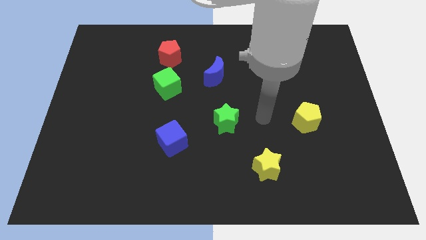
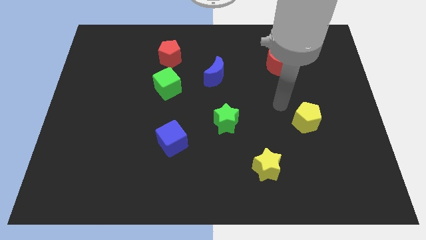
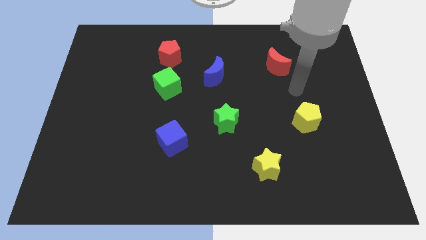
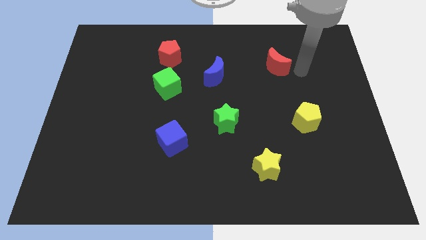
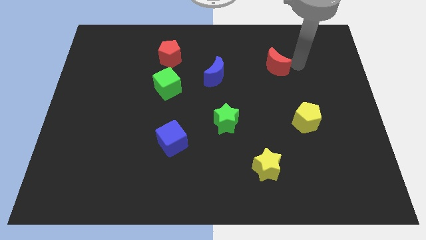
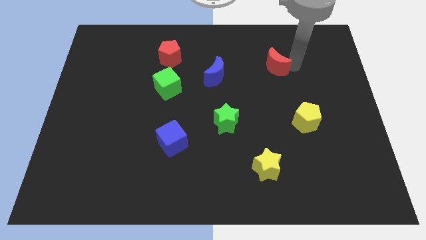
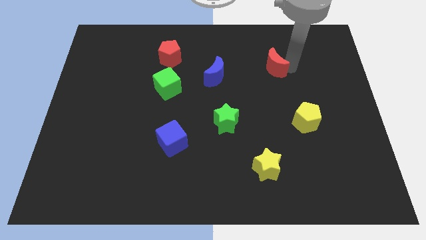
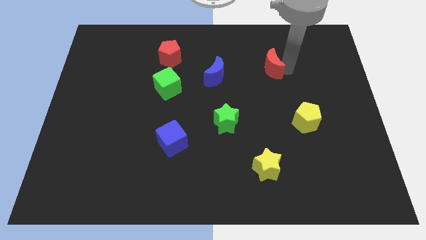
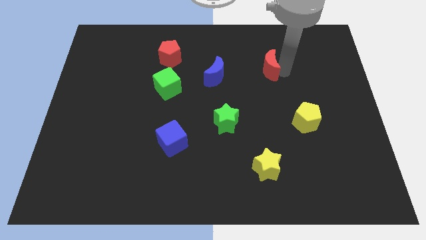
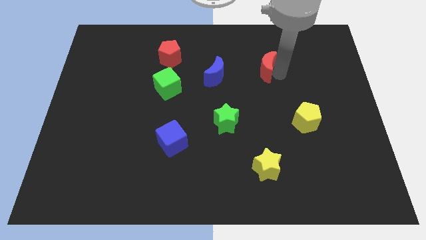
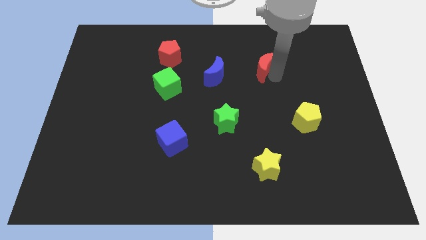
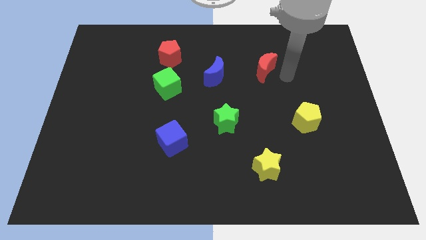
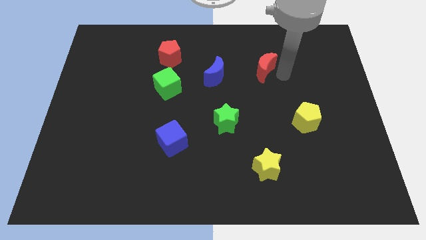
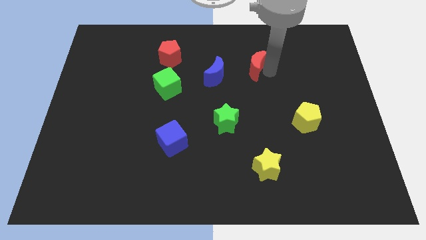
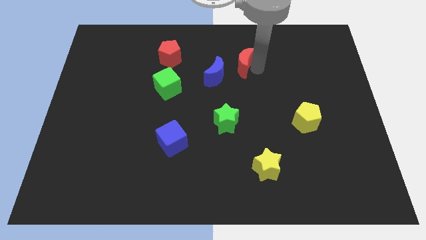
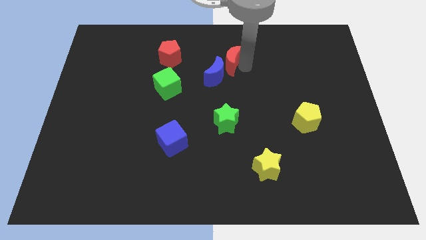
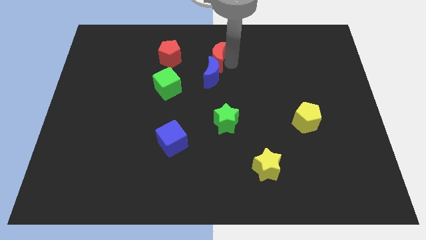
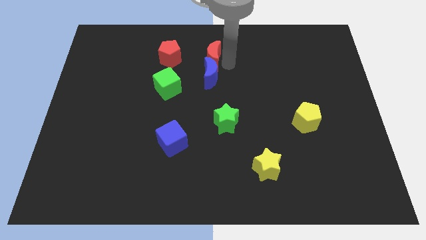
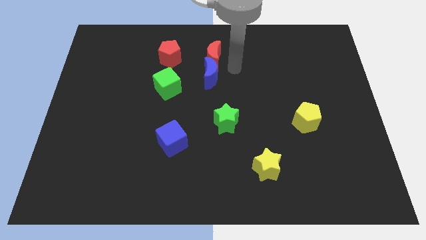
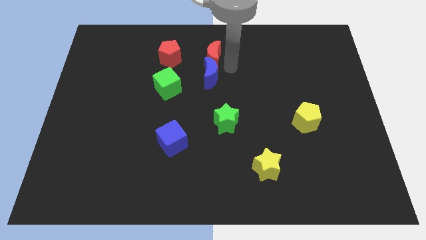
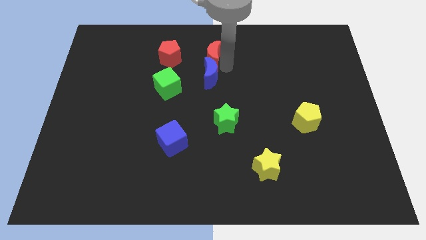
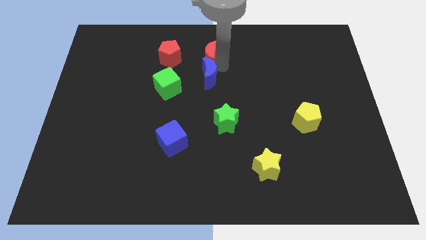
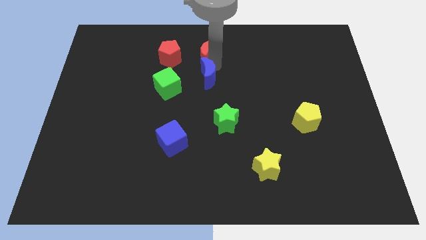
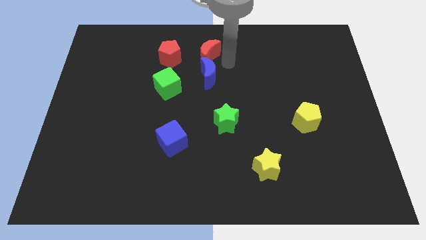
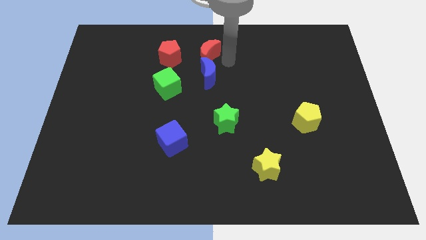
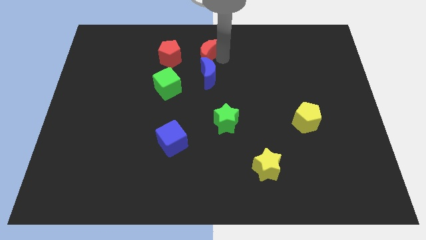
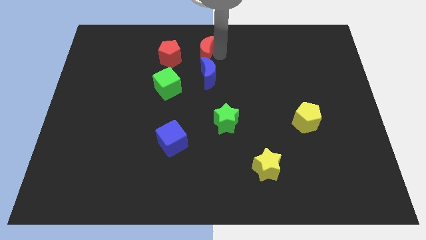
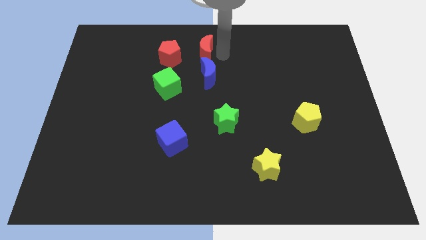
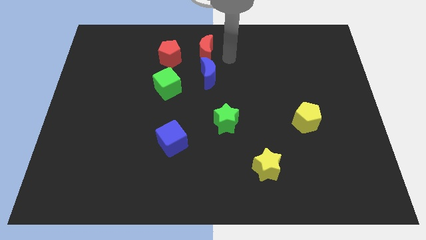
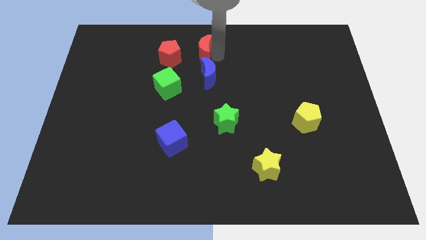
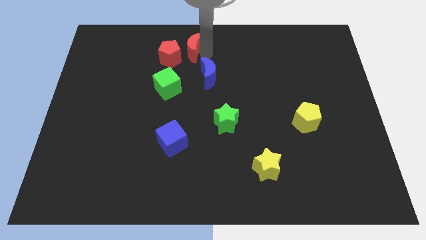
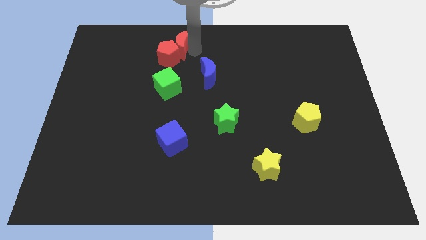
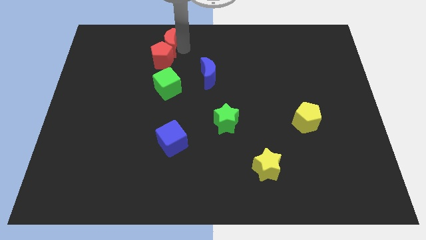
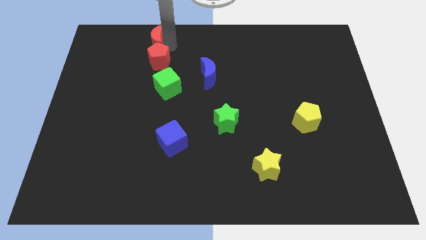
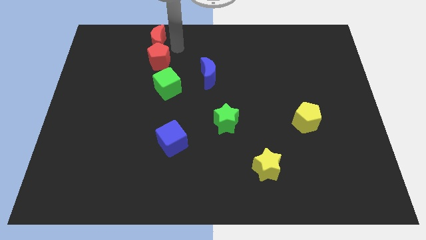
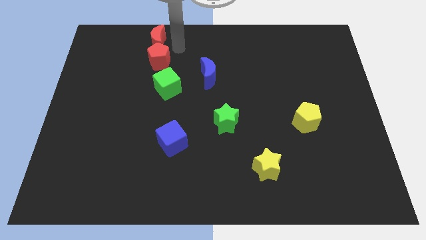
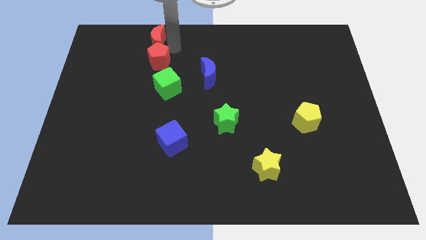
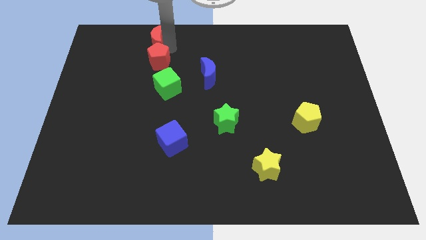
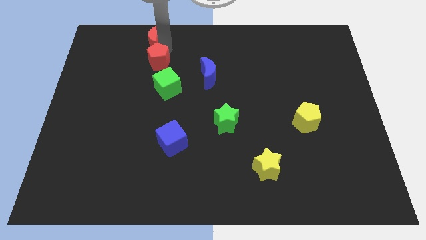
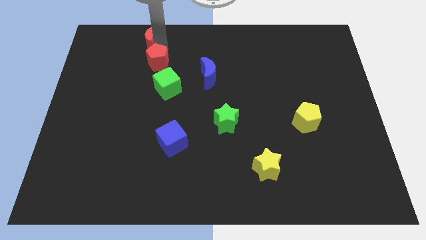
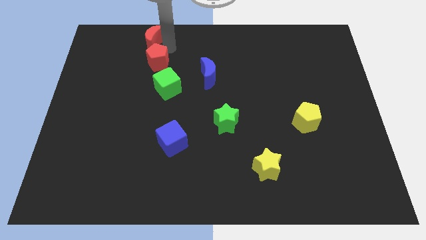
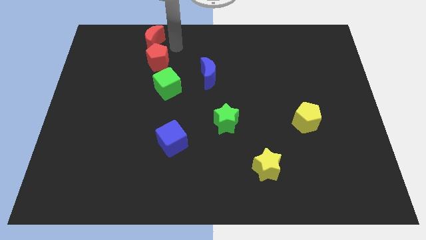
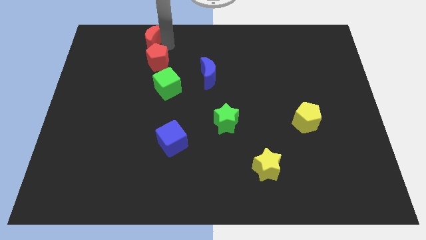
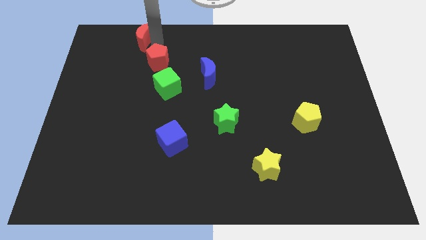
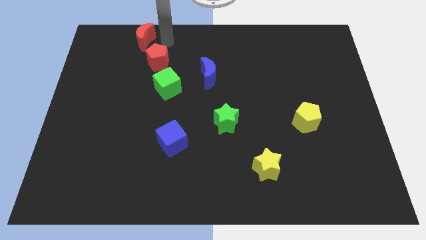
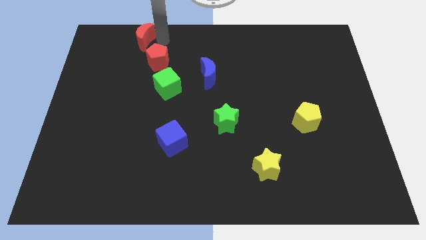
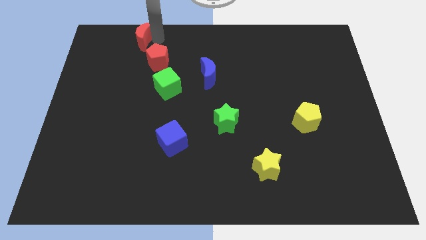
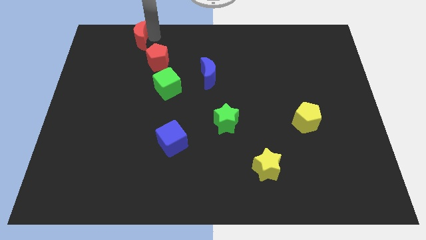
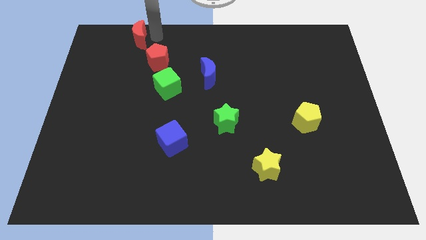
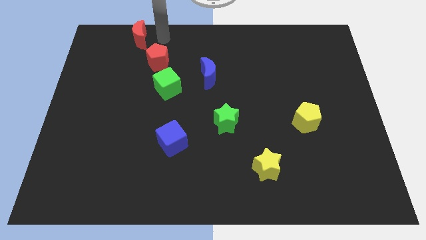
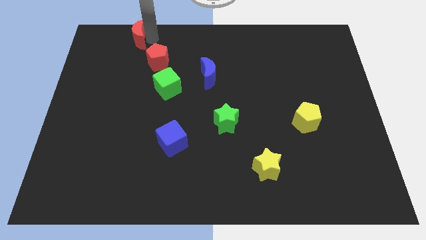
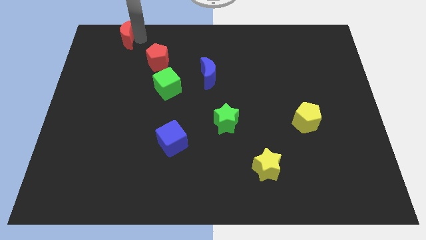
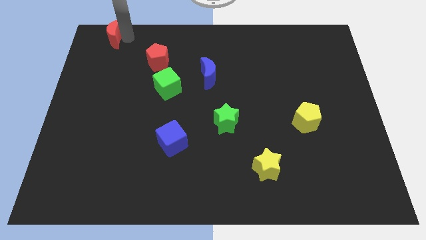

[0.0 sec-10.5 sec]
slide the red moon to the upper left corner

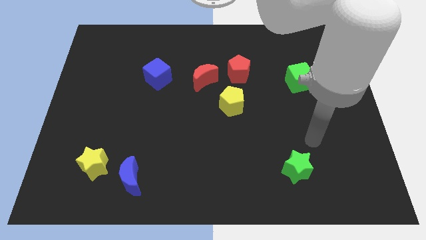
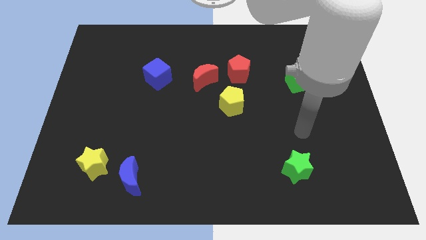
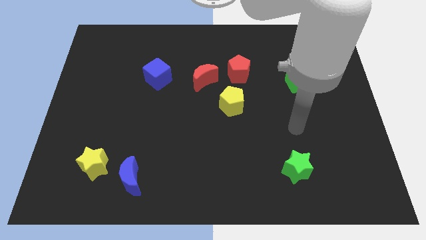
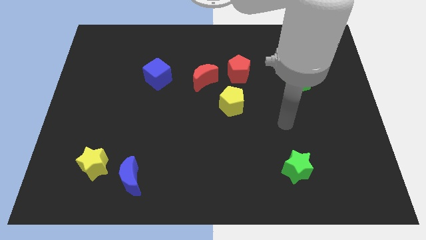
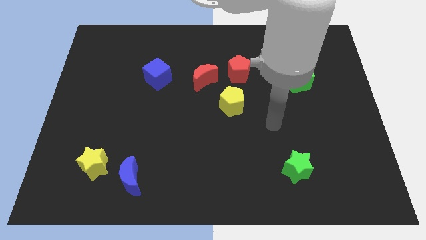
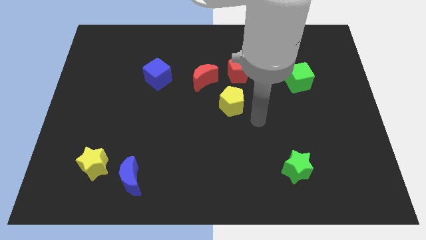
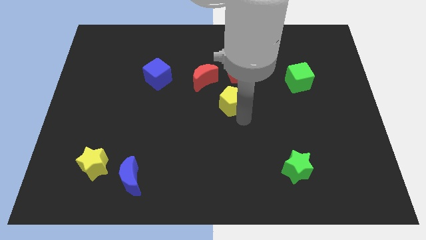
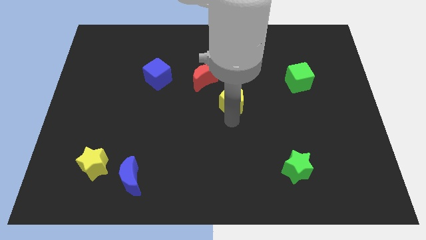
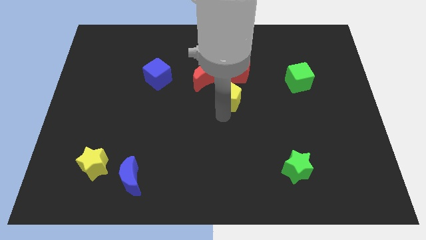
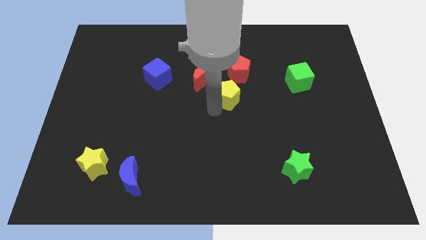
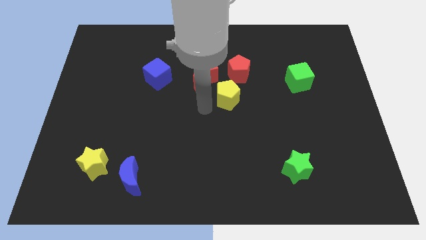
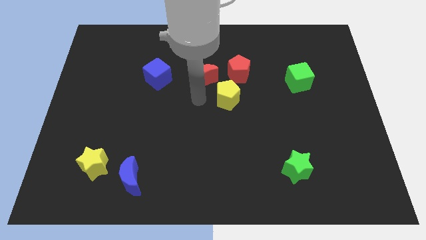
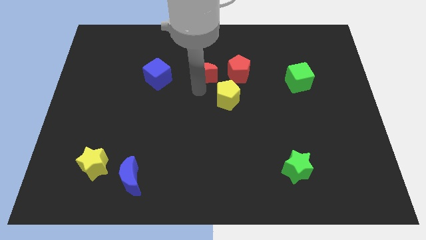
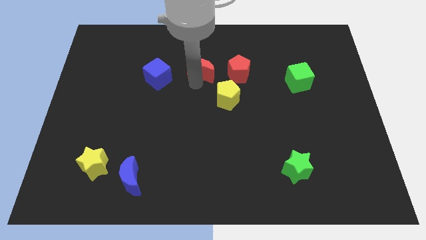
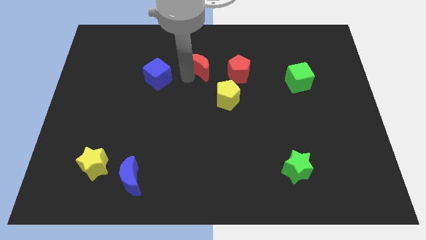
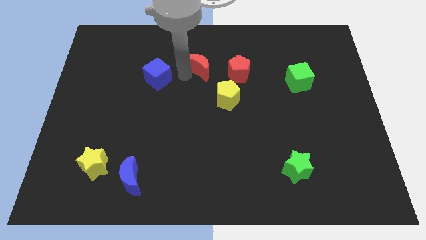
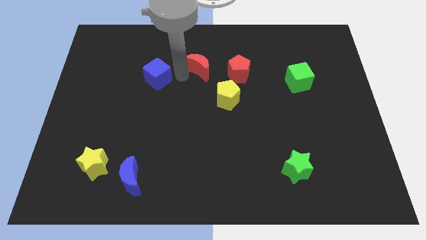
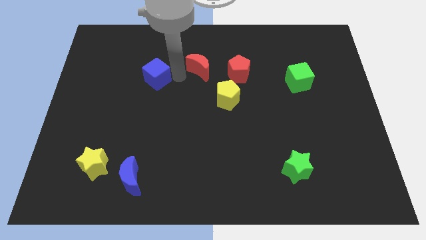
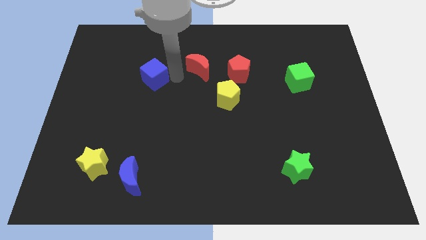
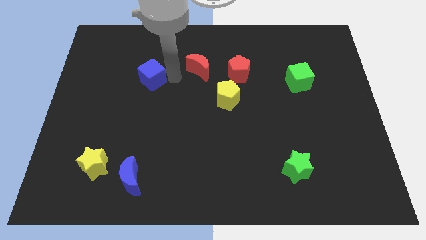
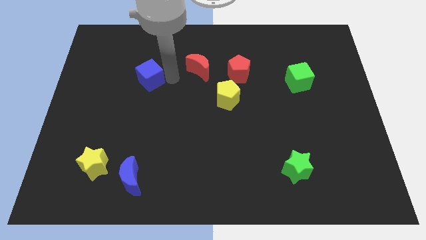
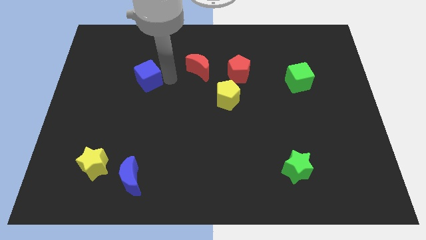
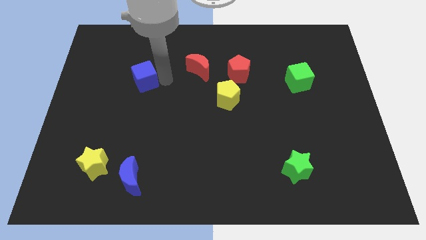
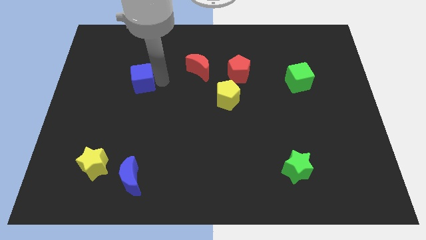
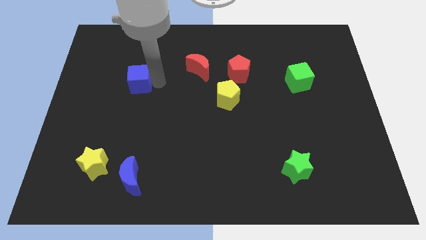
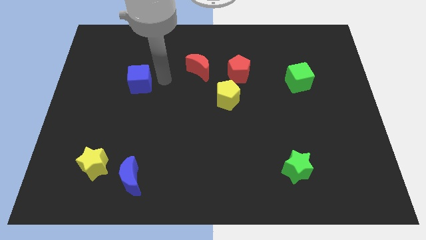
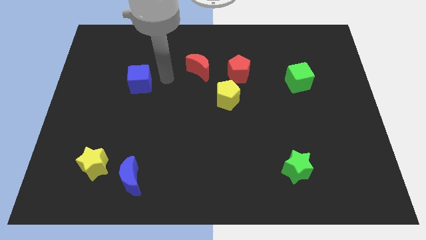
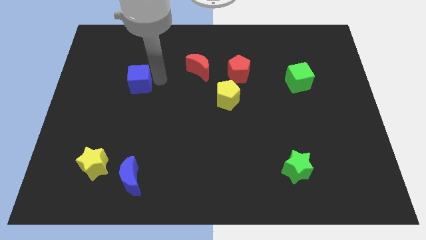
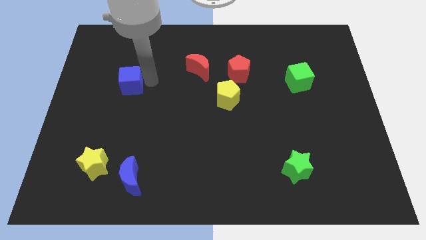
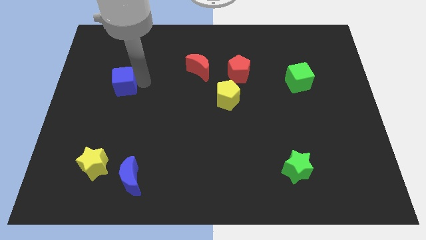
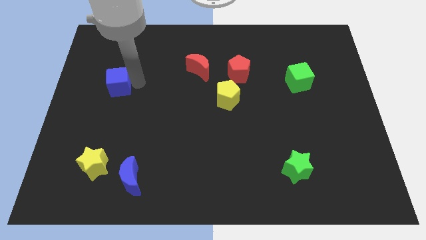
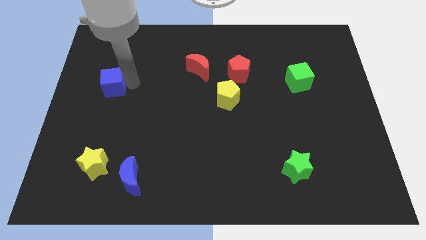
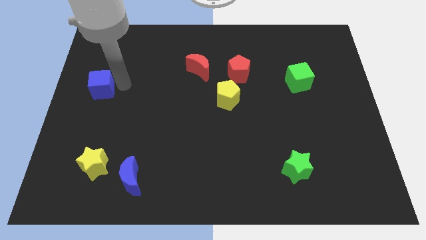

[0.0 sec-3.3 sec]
slide the blue cube to the left side of the board
